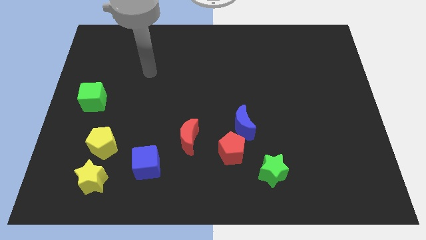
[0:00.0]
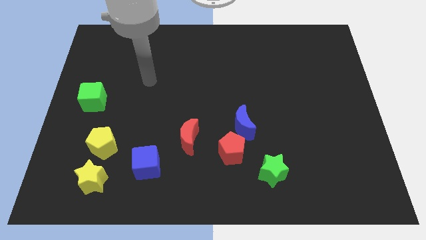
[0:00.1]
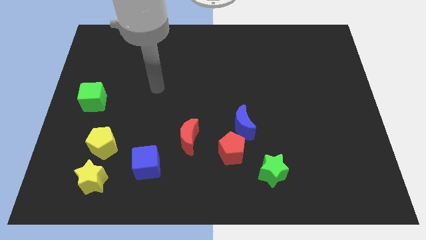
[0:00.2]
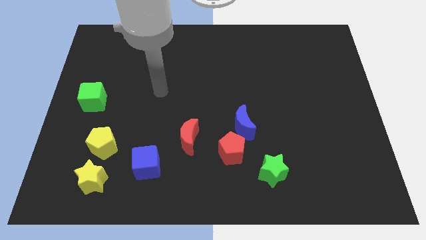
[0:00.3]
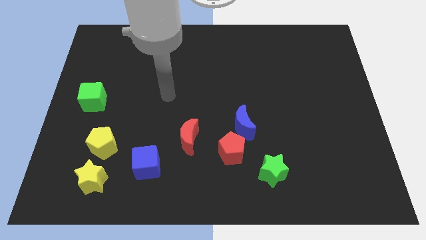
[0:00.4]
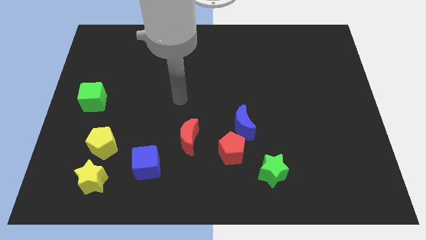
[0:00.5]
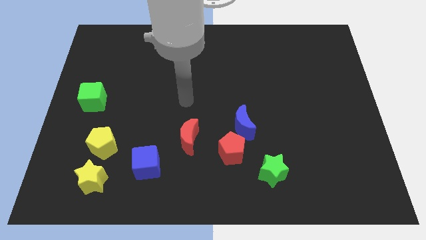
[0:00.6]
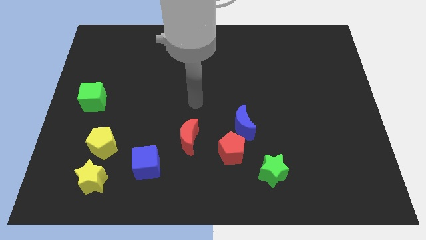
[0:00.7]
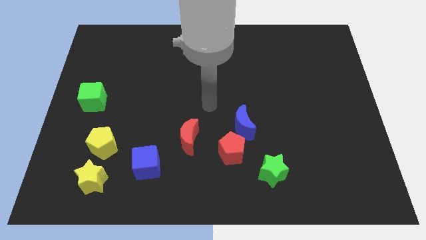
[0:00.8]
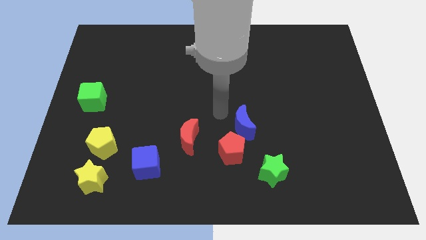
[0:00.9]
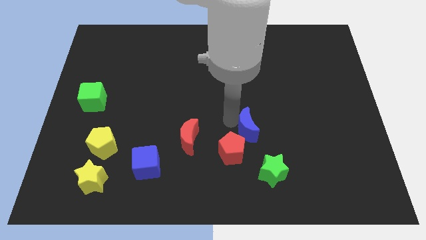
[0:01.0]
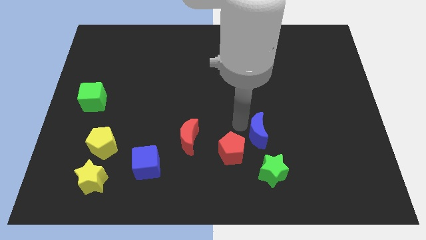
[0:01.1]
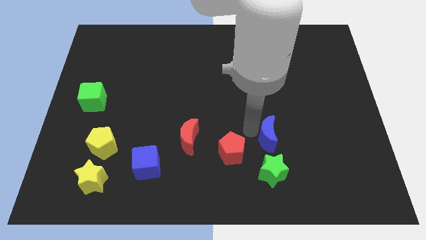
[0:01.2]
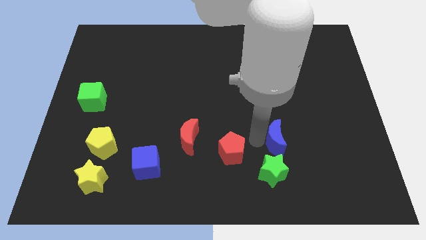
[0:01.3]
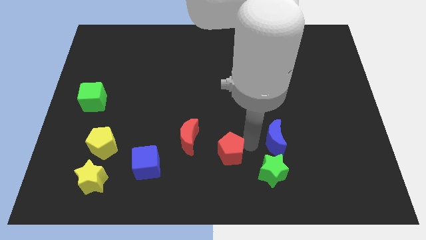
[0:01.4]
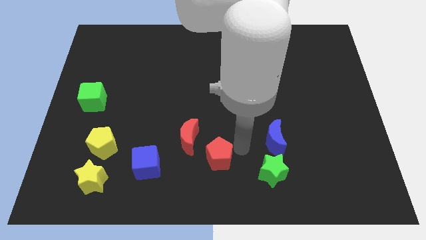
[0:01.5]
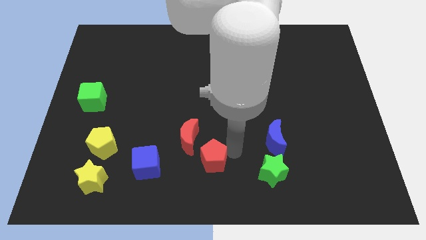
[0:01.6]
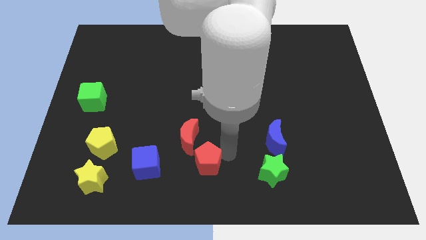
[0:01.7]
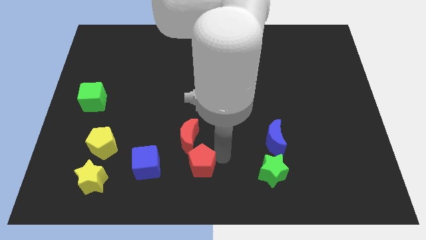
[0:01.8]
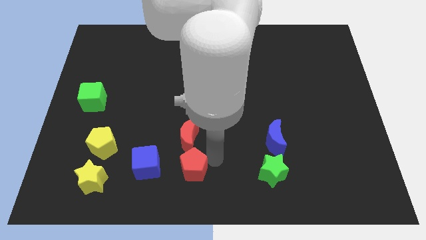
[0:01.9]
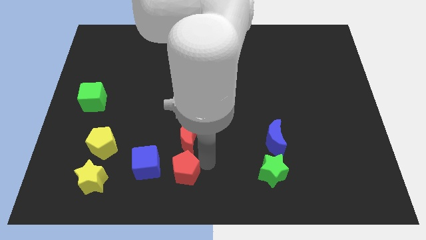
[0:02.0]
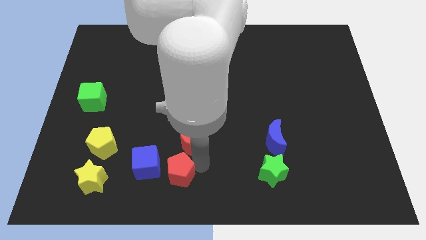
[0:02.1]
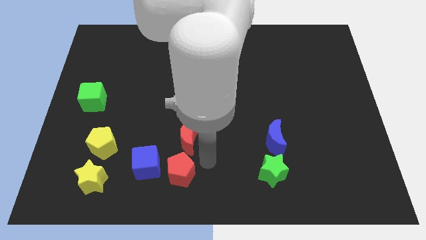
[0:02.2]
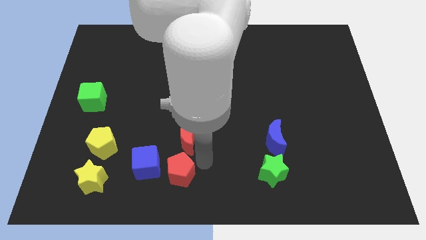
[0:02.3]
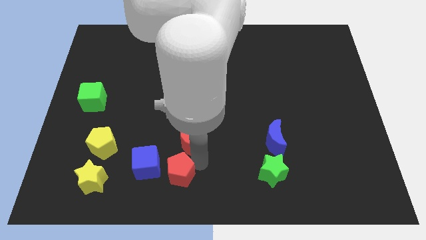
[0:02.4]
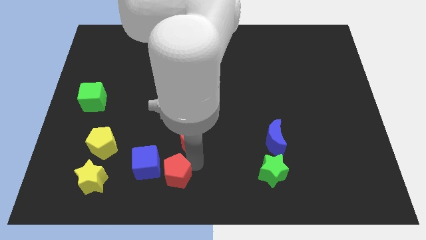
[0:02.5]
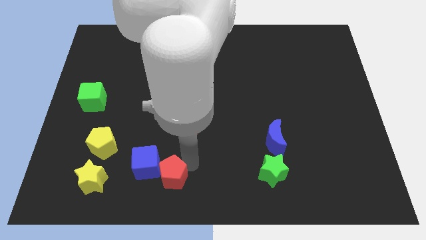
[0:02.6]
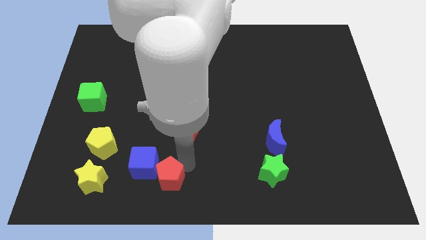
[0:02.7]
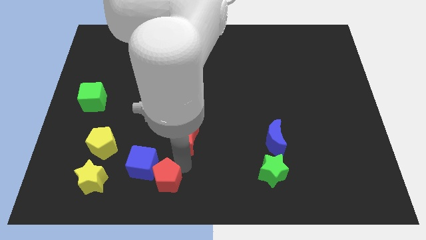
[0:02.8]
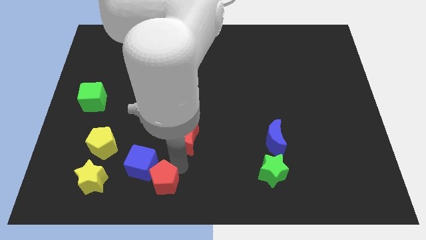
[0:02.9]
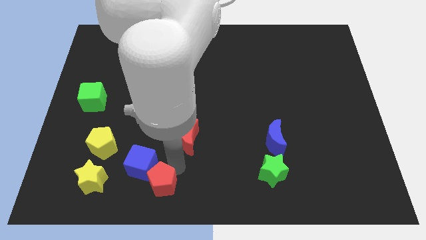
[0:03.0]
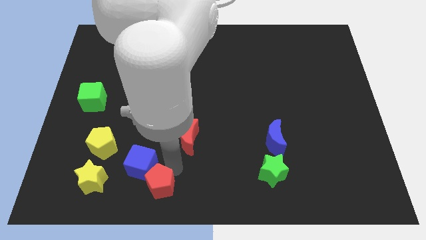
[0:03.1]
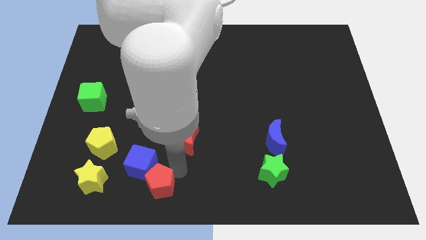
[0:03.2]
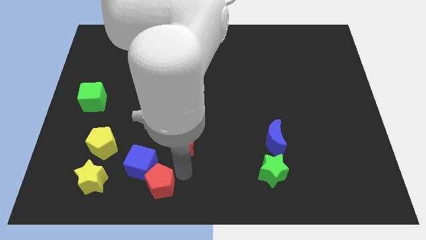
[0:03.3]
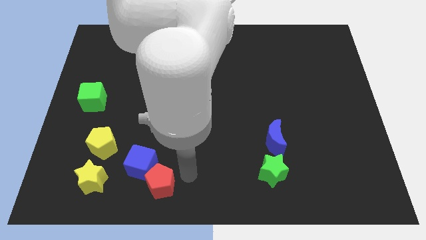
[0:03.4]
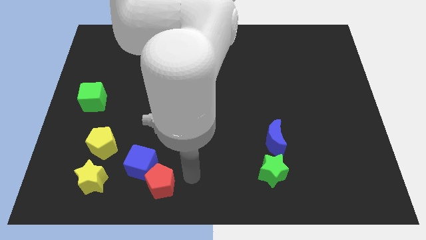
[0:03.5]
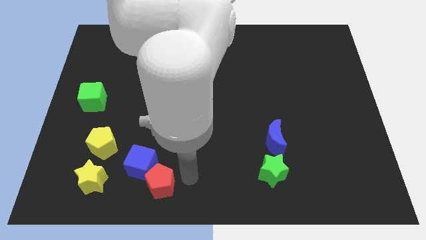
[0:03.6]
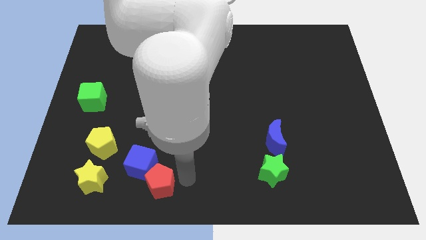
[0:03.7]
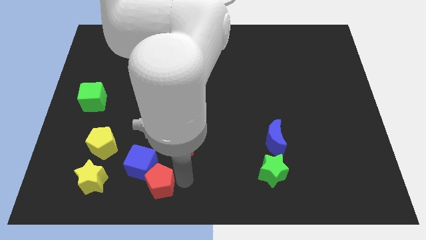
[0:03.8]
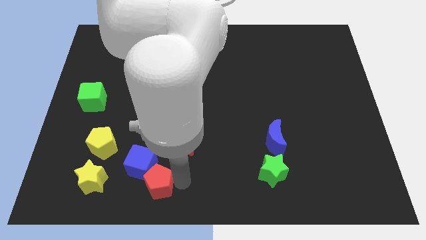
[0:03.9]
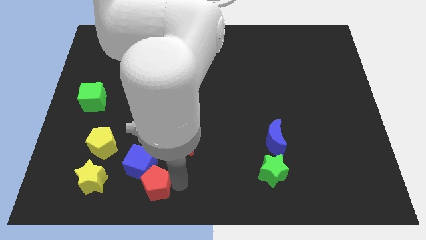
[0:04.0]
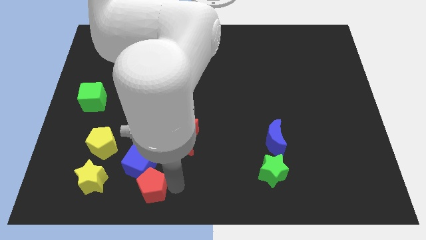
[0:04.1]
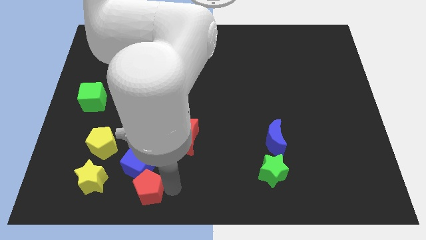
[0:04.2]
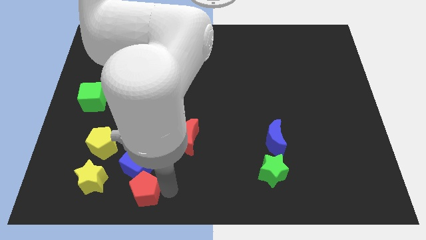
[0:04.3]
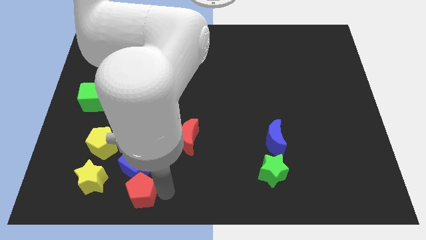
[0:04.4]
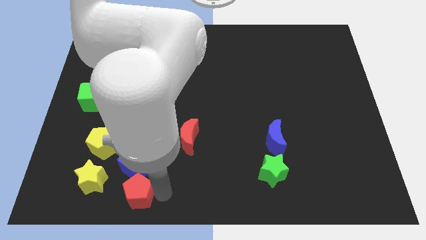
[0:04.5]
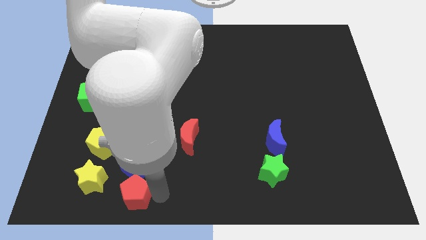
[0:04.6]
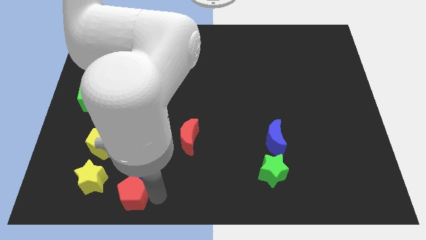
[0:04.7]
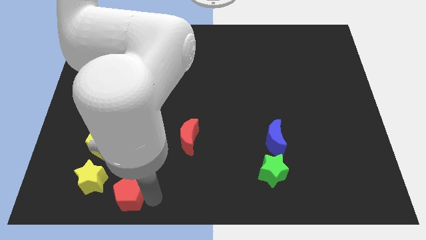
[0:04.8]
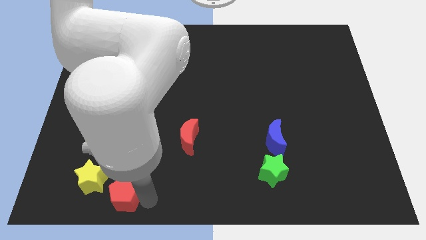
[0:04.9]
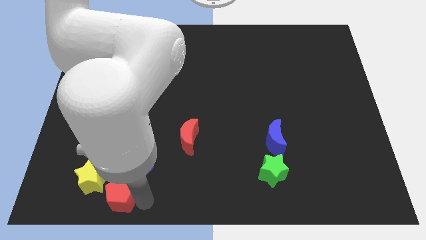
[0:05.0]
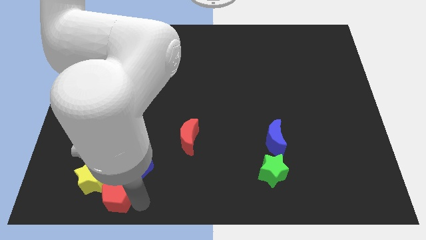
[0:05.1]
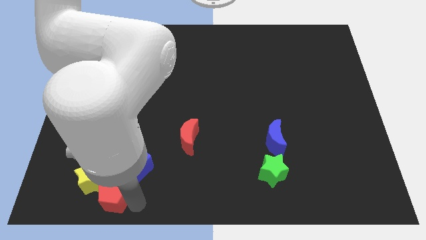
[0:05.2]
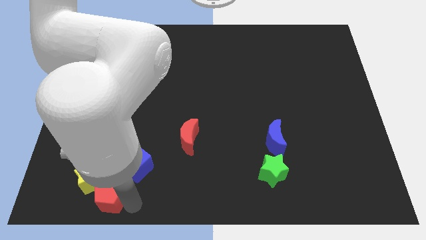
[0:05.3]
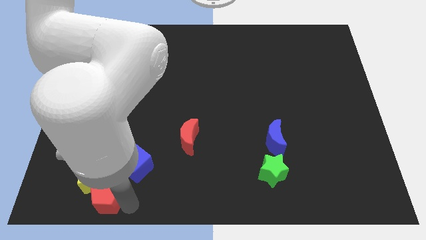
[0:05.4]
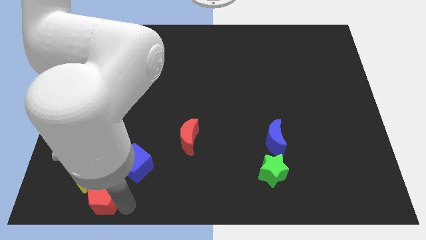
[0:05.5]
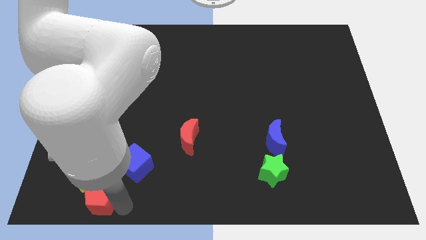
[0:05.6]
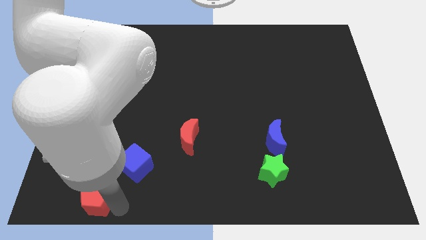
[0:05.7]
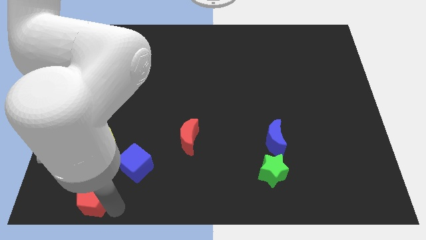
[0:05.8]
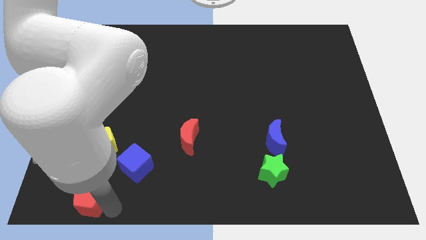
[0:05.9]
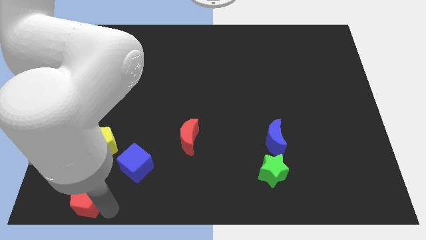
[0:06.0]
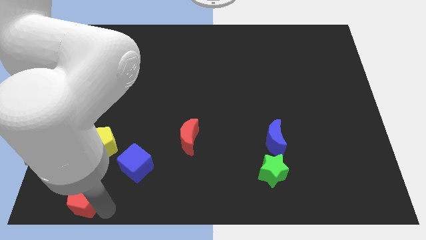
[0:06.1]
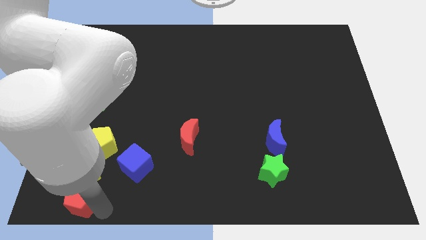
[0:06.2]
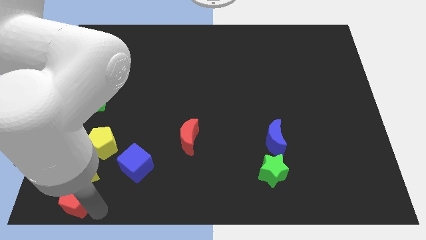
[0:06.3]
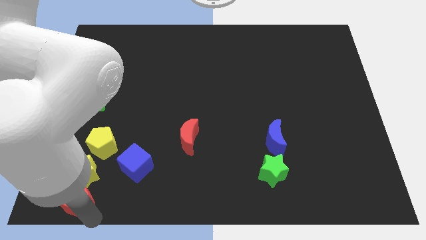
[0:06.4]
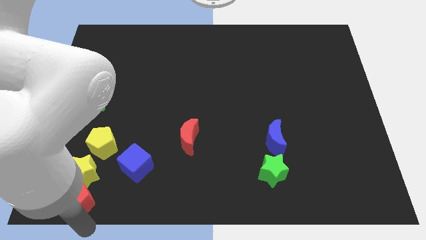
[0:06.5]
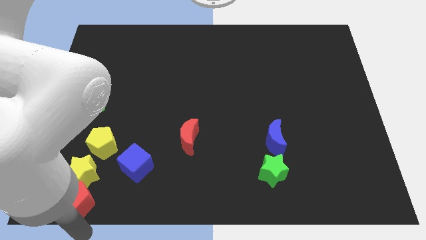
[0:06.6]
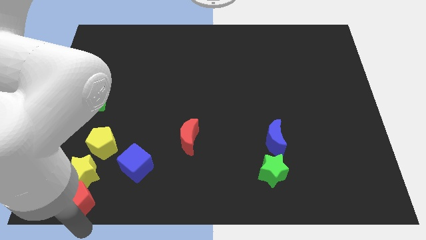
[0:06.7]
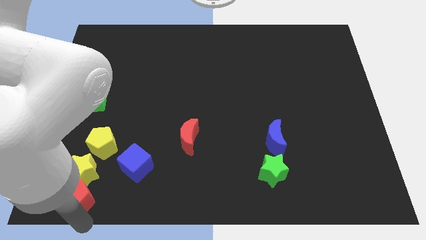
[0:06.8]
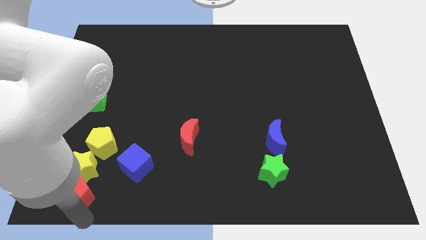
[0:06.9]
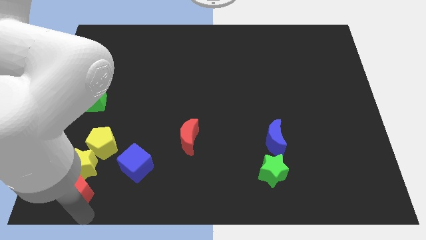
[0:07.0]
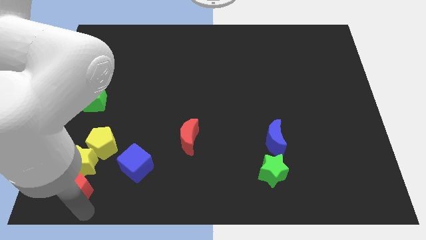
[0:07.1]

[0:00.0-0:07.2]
slide the red pentagon to the bottom left side of the yellow pentagon
